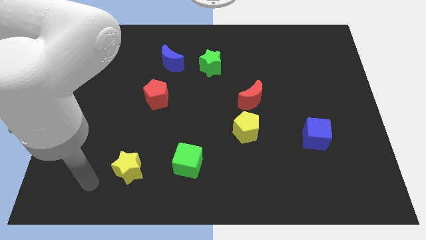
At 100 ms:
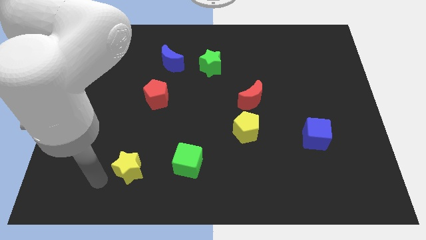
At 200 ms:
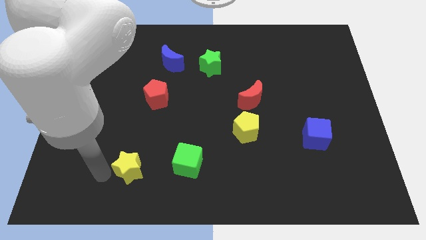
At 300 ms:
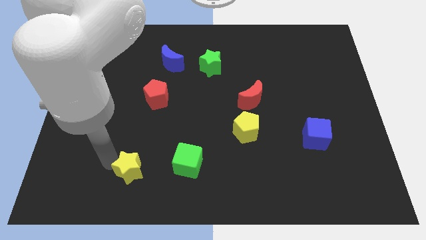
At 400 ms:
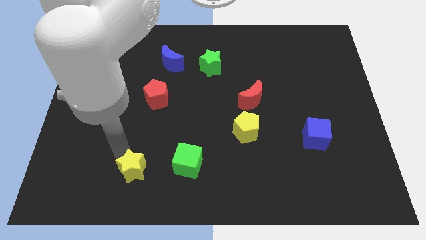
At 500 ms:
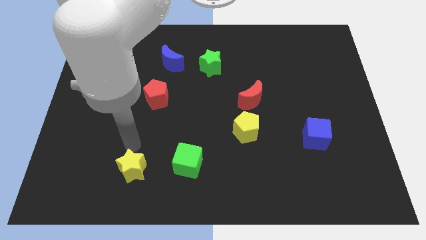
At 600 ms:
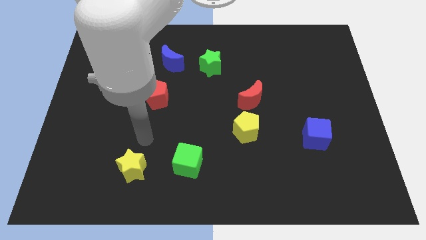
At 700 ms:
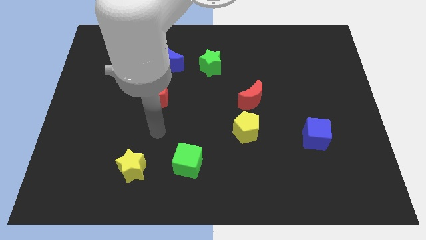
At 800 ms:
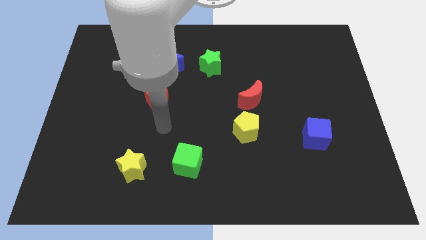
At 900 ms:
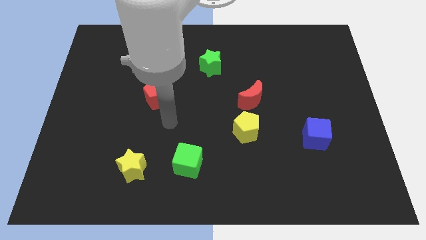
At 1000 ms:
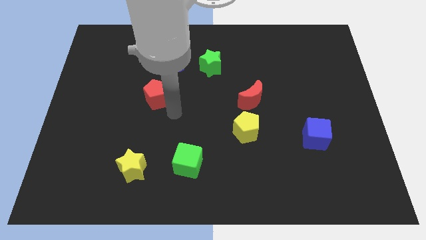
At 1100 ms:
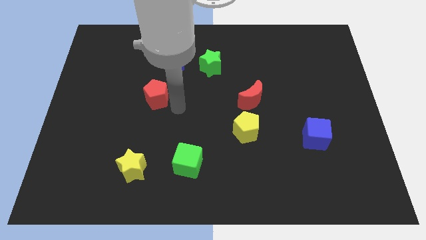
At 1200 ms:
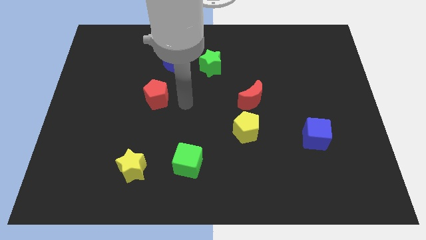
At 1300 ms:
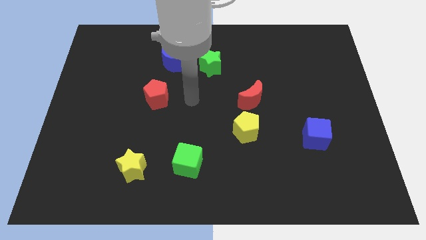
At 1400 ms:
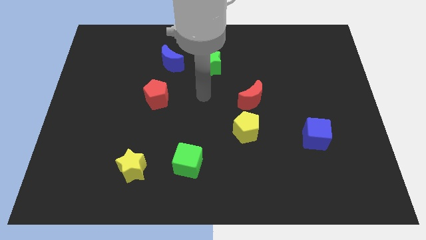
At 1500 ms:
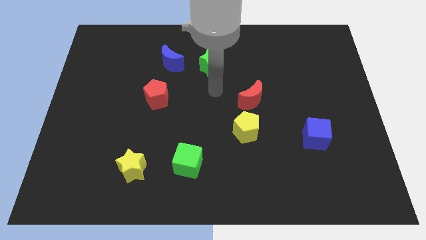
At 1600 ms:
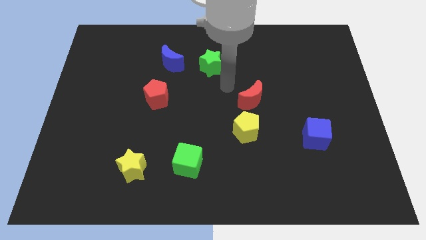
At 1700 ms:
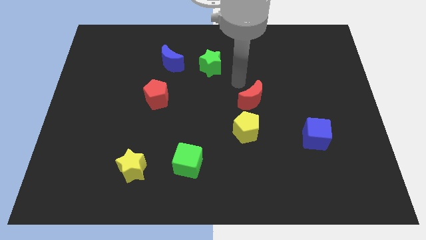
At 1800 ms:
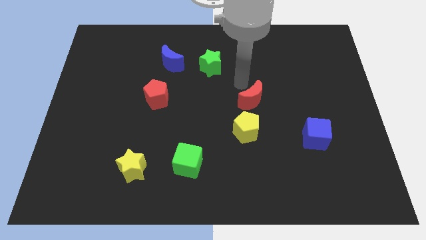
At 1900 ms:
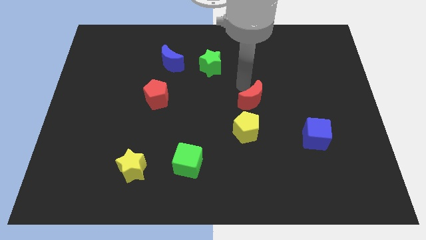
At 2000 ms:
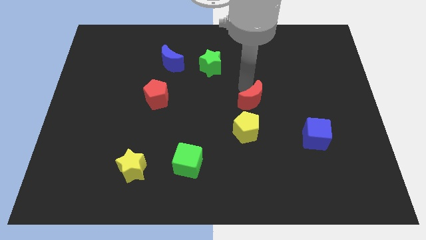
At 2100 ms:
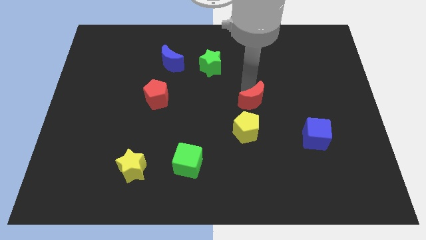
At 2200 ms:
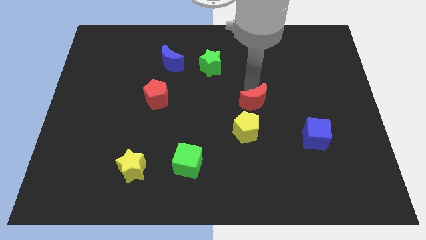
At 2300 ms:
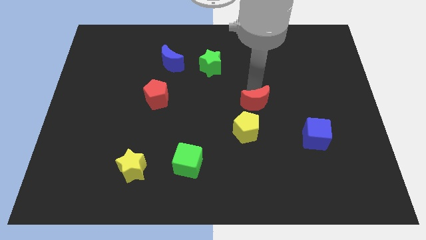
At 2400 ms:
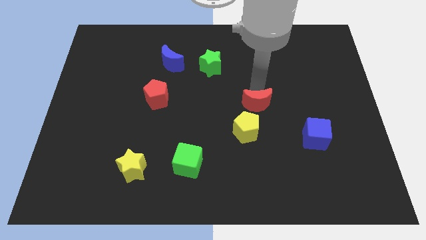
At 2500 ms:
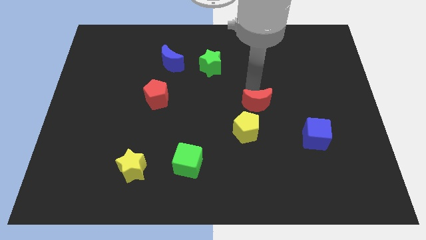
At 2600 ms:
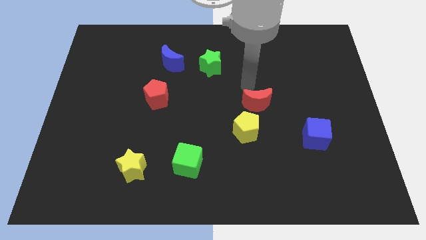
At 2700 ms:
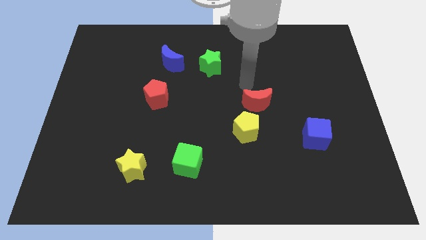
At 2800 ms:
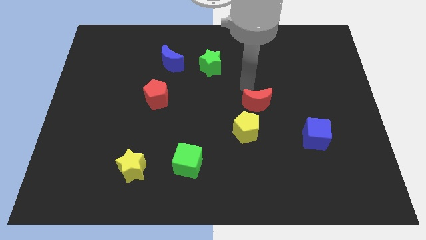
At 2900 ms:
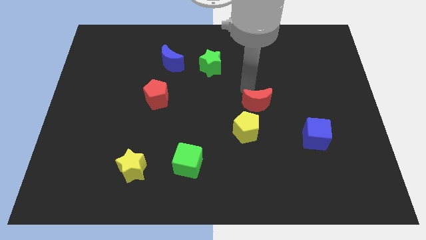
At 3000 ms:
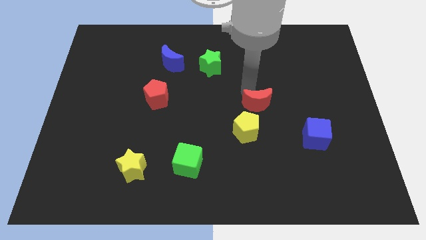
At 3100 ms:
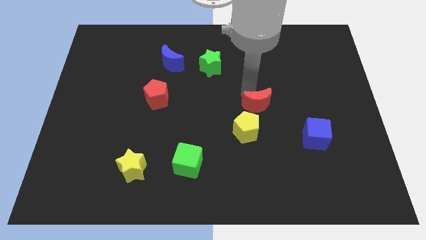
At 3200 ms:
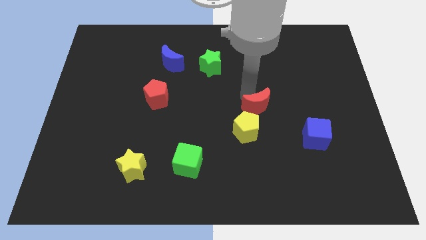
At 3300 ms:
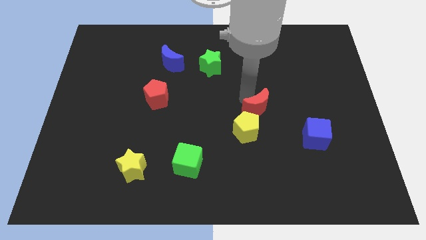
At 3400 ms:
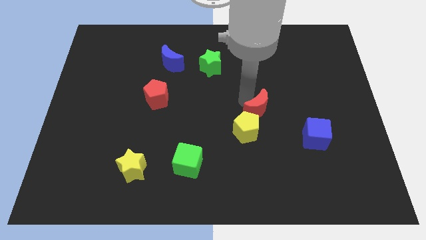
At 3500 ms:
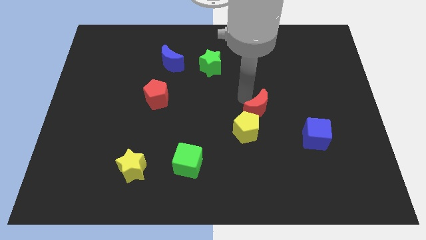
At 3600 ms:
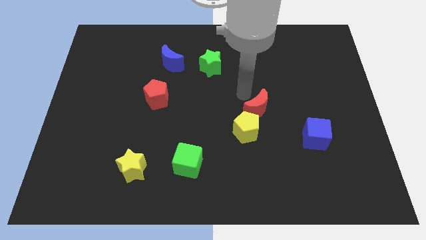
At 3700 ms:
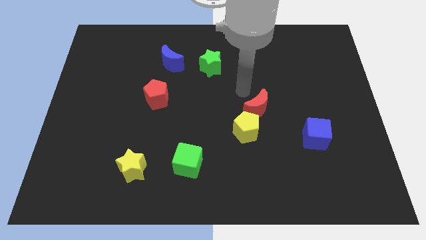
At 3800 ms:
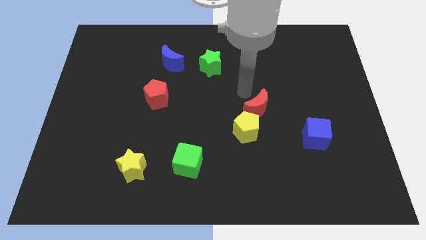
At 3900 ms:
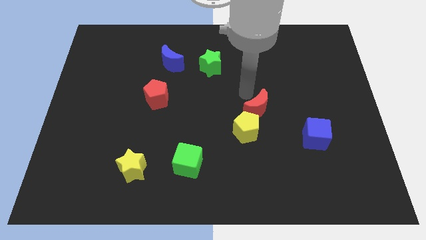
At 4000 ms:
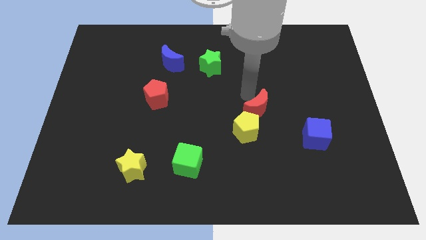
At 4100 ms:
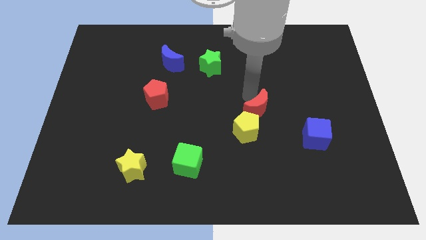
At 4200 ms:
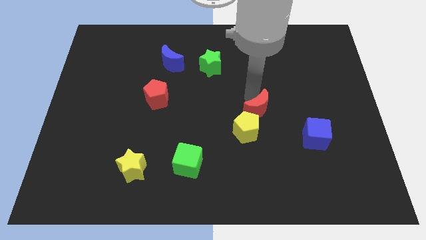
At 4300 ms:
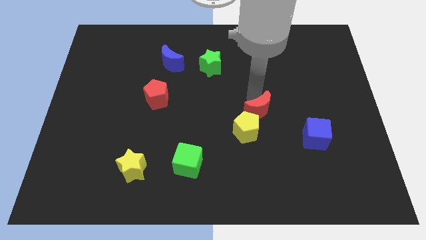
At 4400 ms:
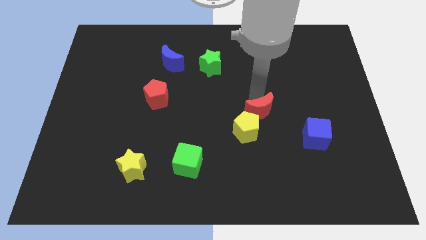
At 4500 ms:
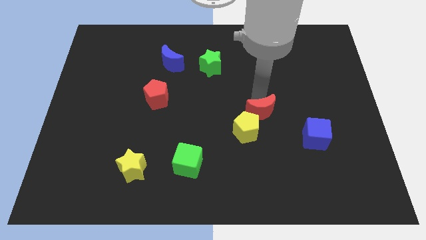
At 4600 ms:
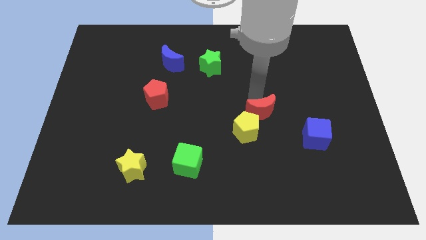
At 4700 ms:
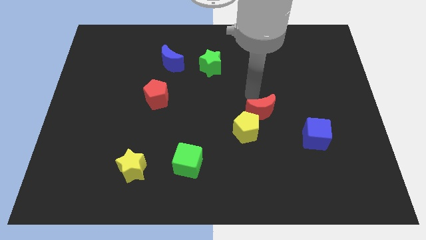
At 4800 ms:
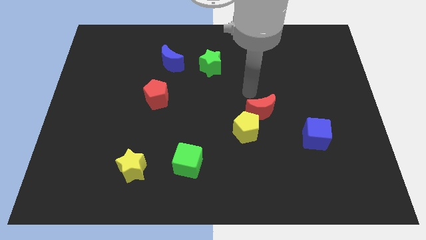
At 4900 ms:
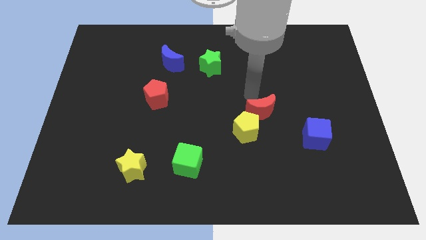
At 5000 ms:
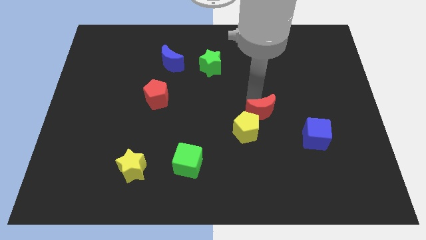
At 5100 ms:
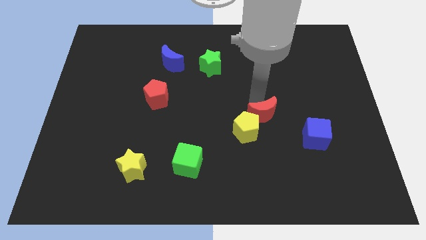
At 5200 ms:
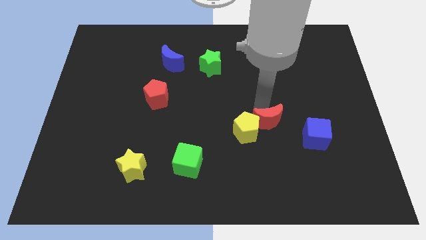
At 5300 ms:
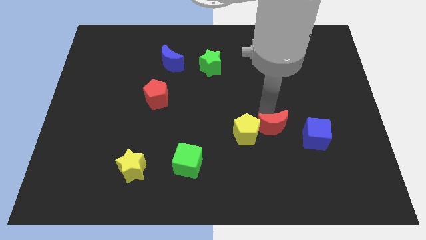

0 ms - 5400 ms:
slightly push the red moon down

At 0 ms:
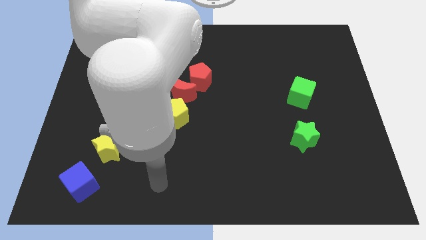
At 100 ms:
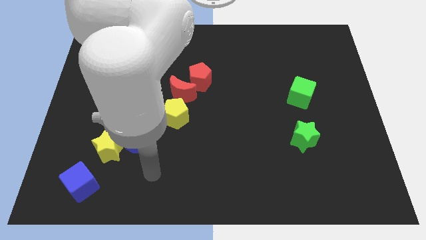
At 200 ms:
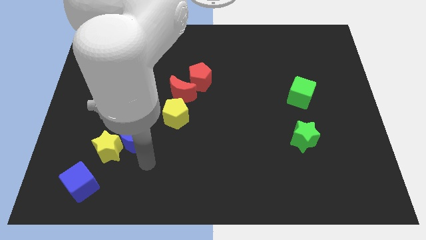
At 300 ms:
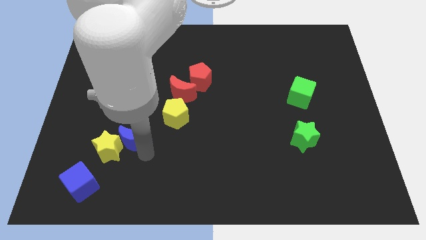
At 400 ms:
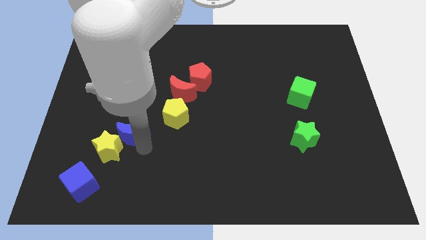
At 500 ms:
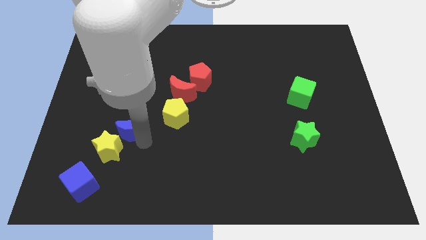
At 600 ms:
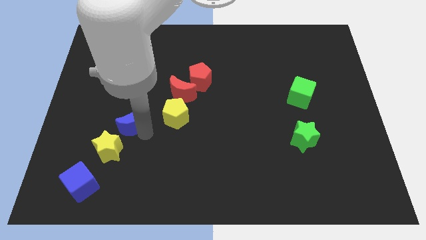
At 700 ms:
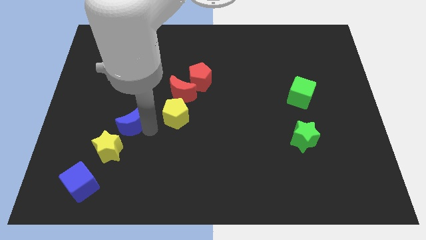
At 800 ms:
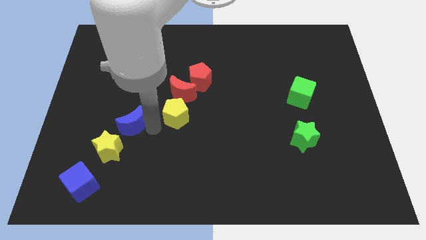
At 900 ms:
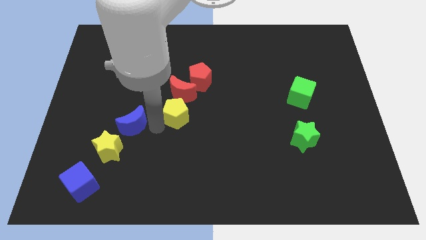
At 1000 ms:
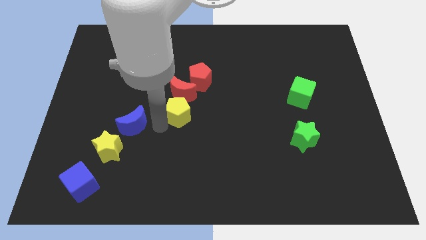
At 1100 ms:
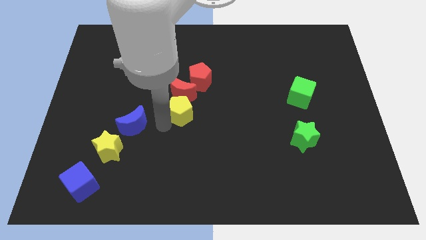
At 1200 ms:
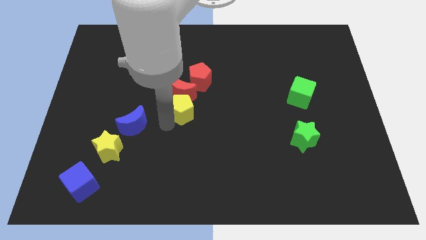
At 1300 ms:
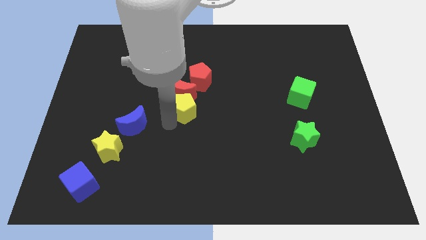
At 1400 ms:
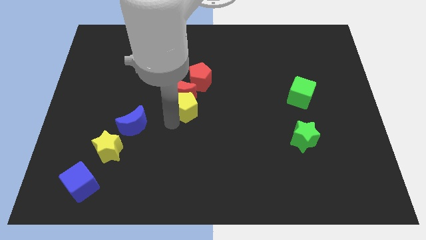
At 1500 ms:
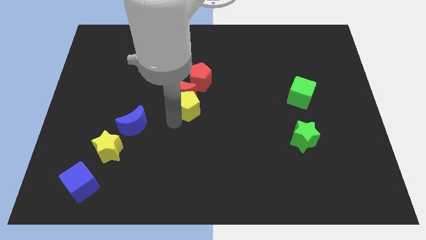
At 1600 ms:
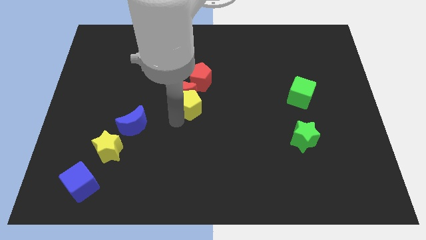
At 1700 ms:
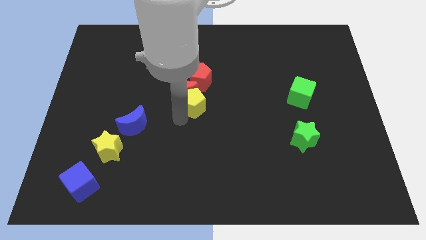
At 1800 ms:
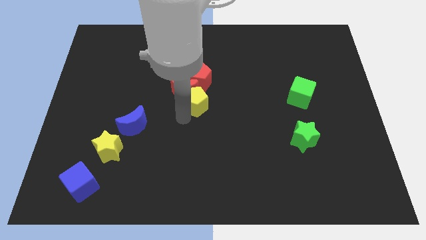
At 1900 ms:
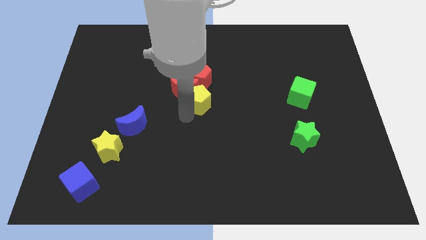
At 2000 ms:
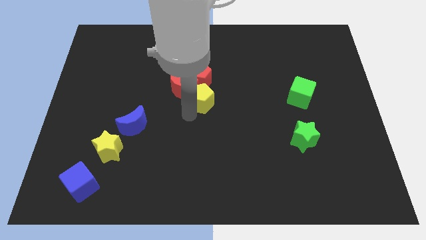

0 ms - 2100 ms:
push the yellow pentagon somewhat up and then right

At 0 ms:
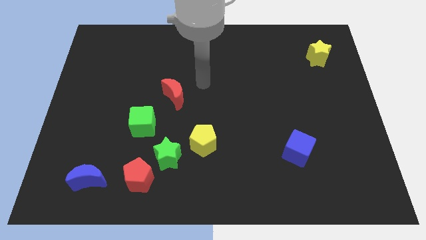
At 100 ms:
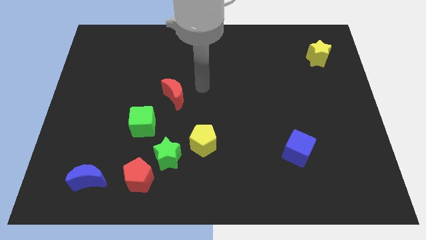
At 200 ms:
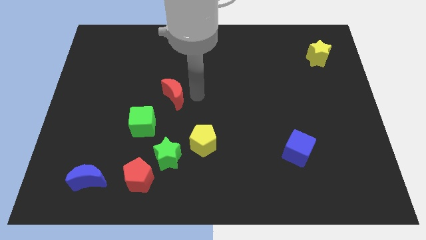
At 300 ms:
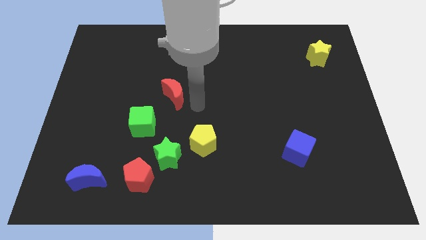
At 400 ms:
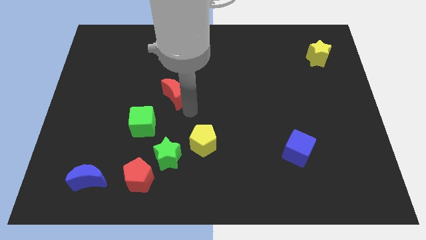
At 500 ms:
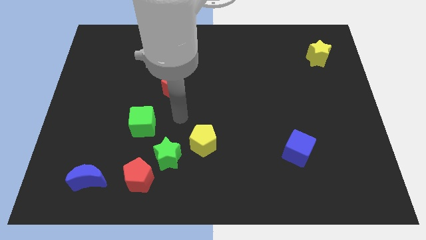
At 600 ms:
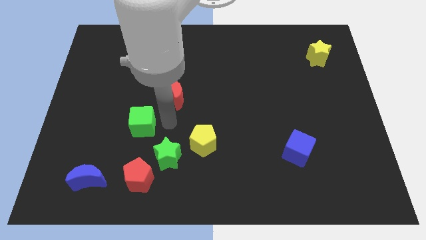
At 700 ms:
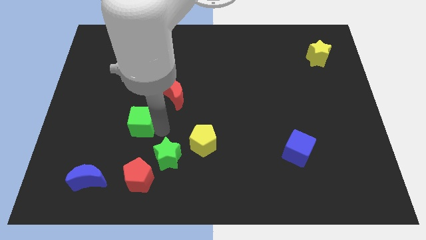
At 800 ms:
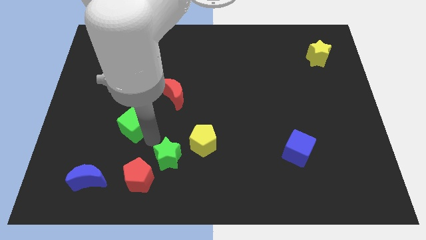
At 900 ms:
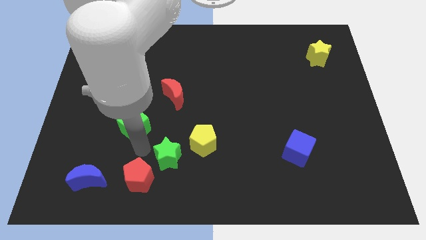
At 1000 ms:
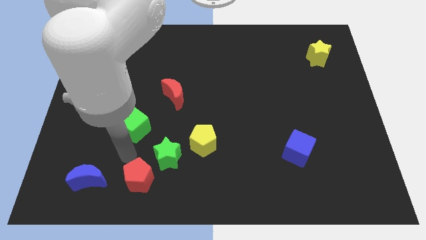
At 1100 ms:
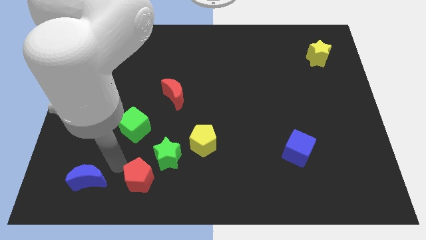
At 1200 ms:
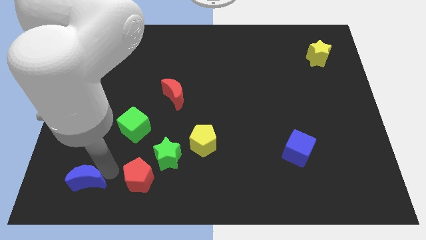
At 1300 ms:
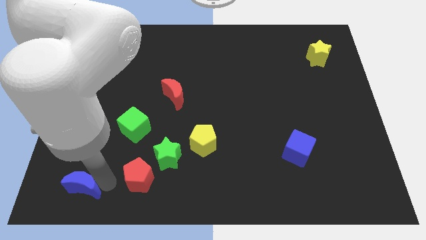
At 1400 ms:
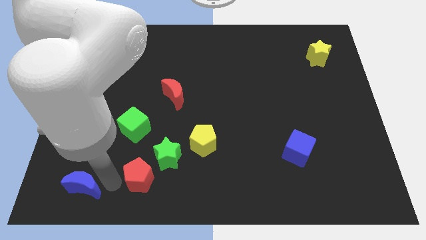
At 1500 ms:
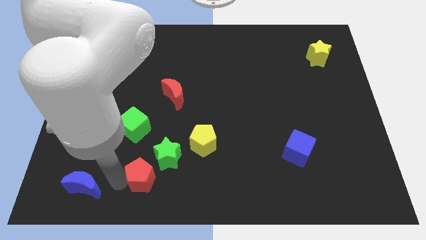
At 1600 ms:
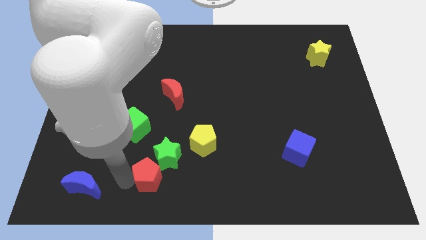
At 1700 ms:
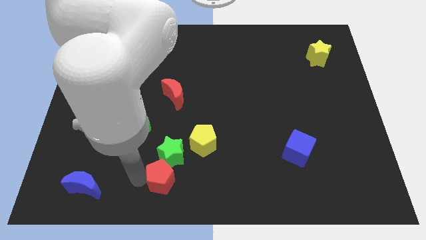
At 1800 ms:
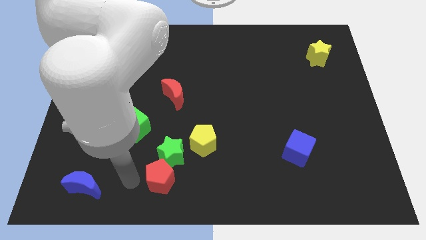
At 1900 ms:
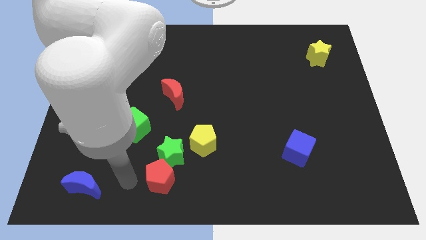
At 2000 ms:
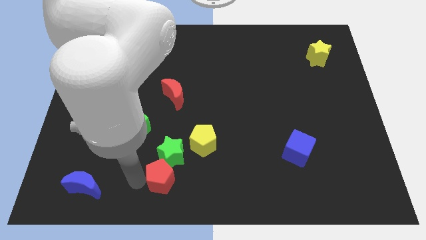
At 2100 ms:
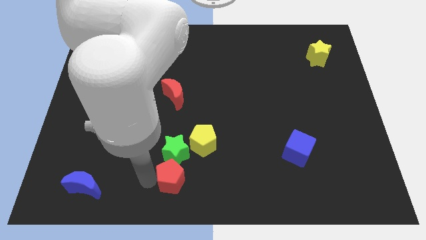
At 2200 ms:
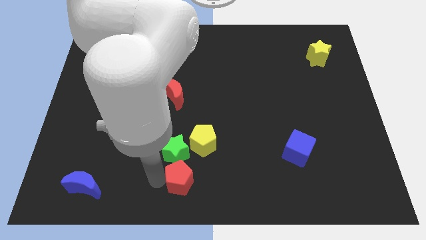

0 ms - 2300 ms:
slightly slide the red pentagon right
